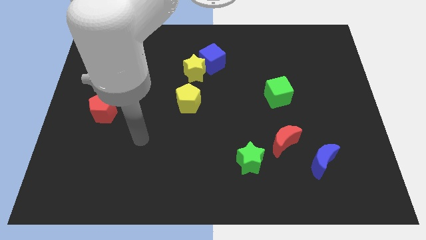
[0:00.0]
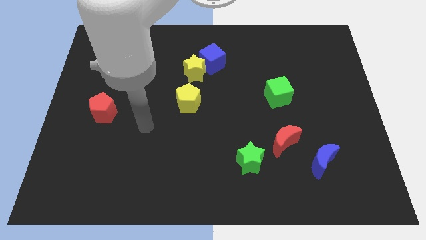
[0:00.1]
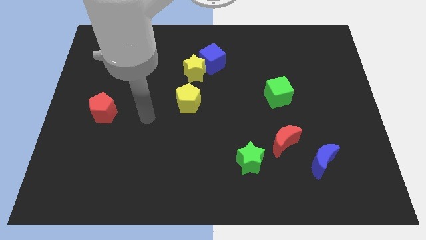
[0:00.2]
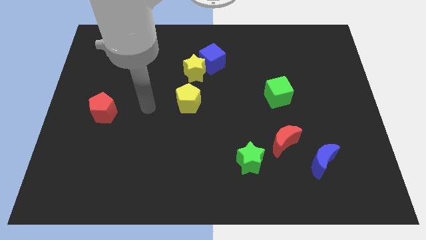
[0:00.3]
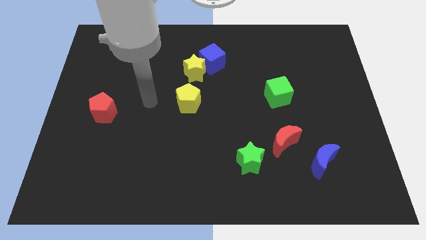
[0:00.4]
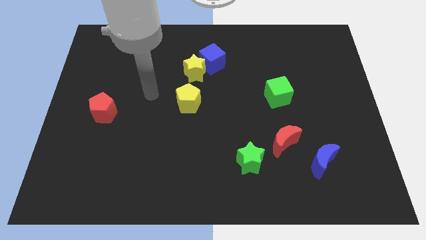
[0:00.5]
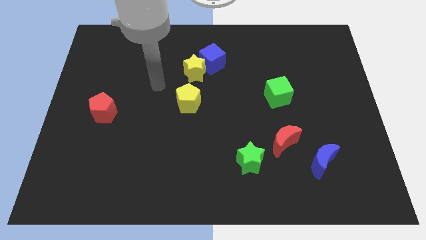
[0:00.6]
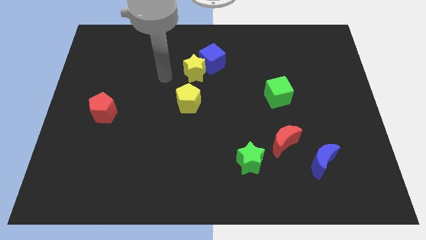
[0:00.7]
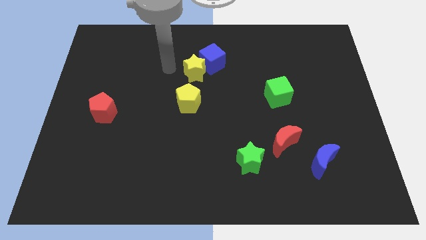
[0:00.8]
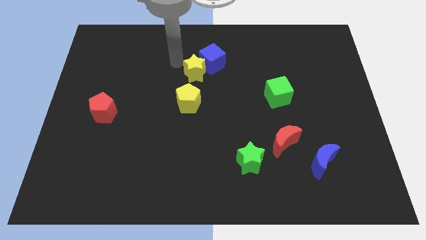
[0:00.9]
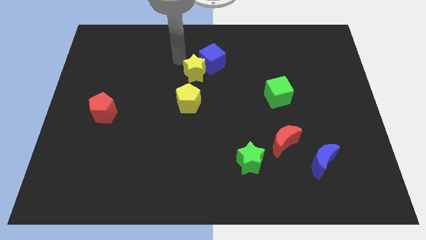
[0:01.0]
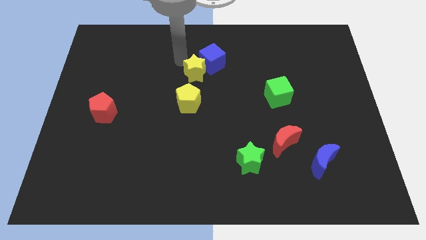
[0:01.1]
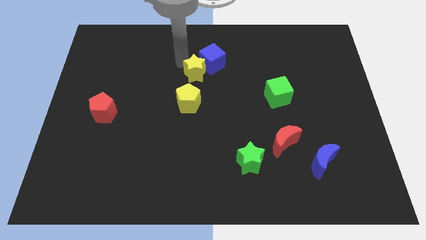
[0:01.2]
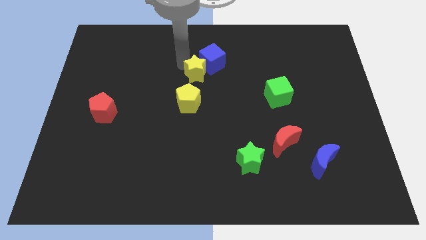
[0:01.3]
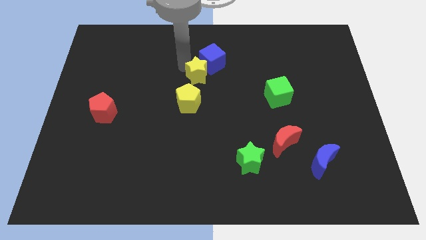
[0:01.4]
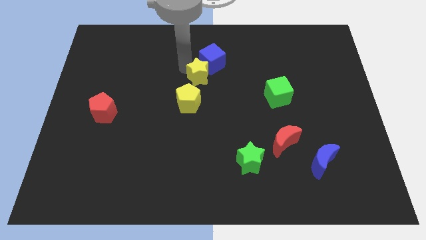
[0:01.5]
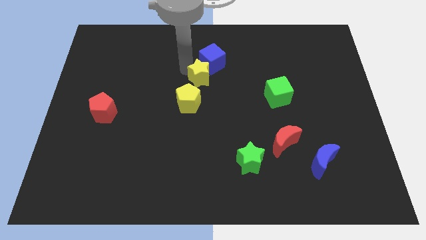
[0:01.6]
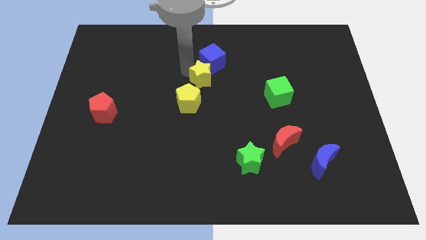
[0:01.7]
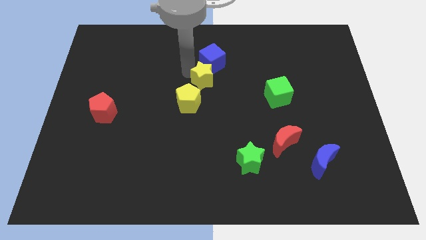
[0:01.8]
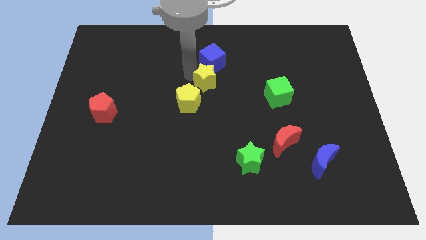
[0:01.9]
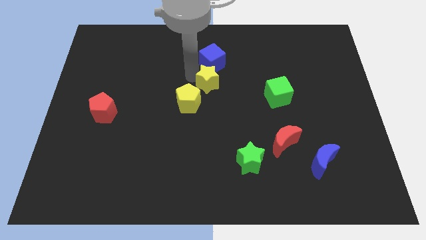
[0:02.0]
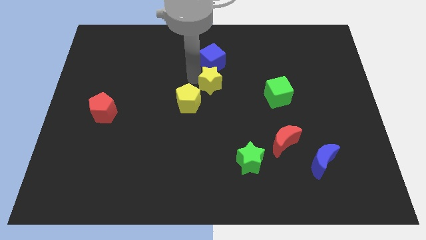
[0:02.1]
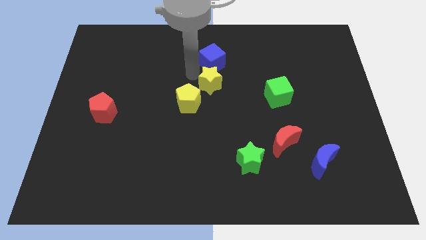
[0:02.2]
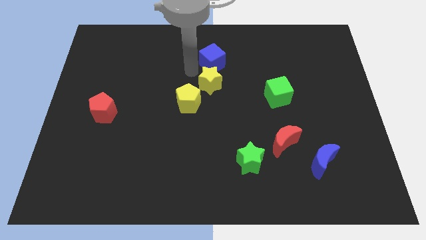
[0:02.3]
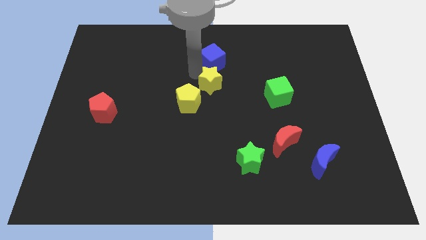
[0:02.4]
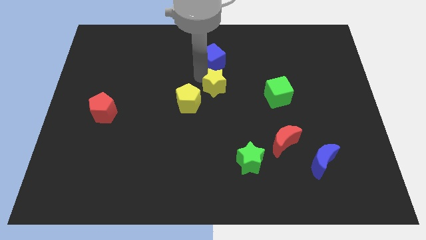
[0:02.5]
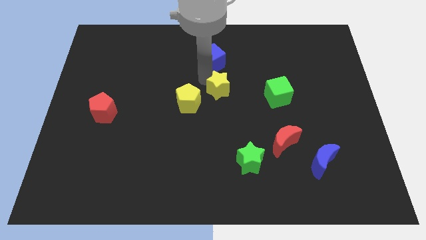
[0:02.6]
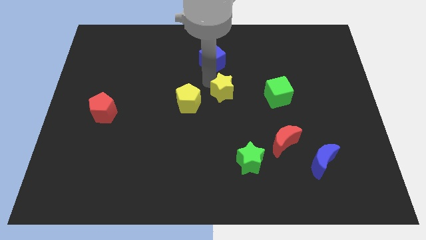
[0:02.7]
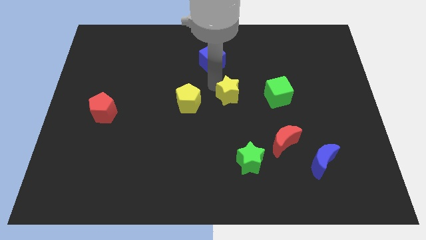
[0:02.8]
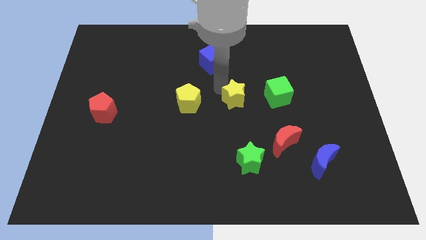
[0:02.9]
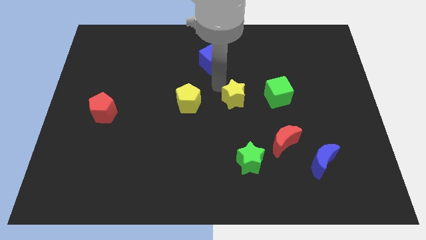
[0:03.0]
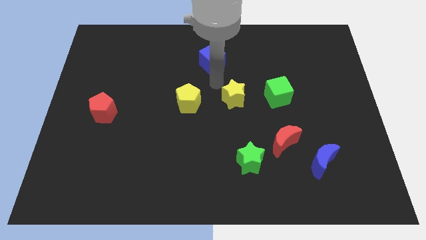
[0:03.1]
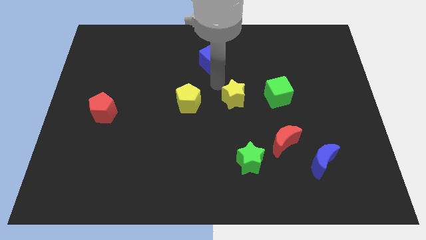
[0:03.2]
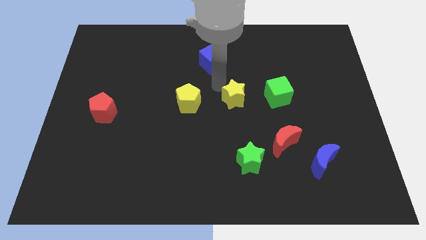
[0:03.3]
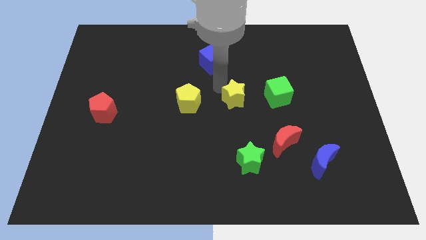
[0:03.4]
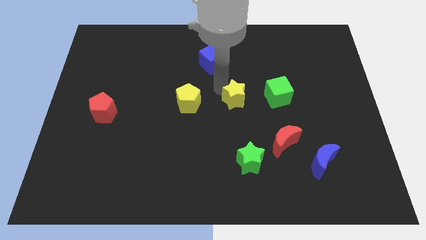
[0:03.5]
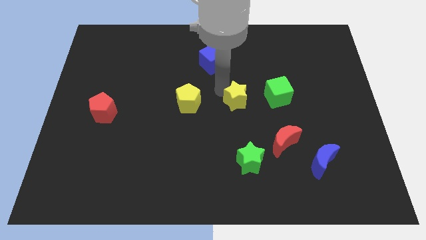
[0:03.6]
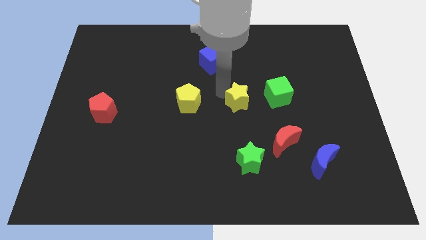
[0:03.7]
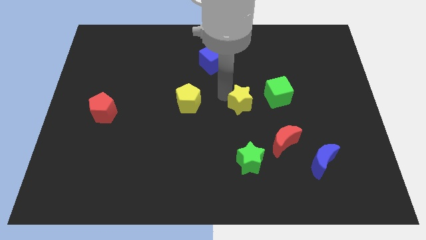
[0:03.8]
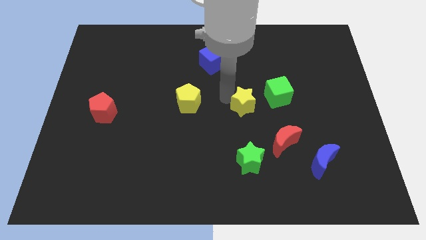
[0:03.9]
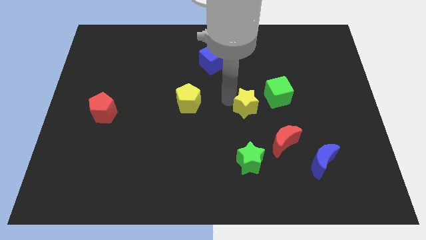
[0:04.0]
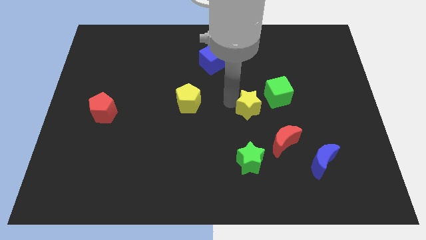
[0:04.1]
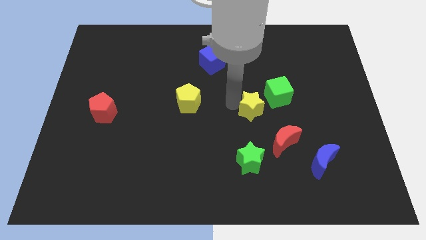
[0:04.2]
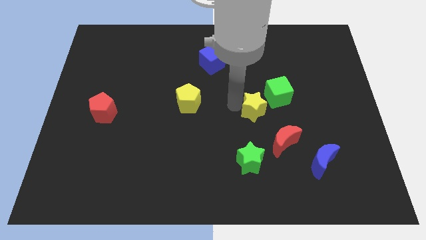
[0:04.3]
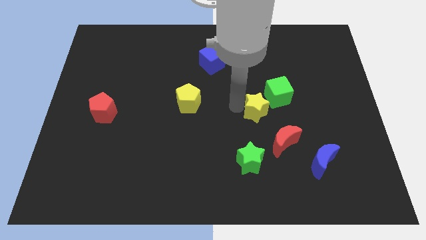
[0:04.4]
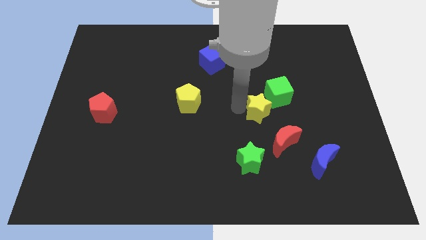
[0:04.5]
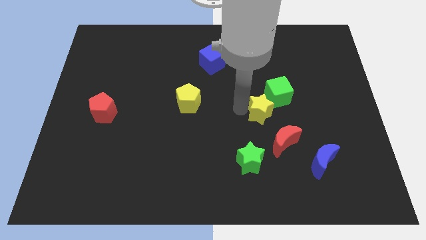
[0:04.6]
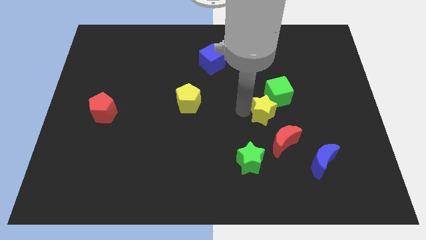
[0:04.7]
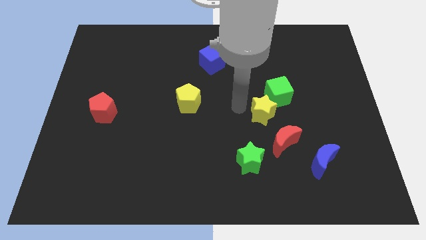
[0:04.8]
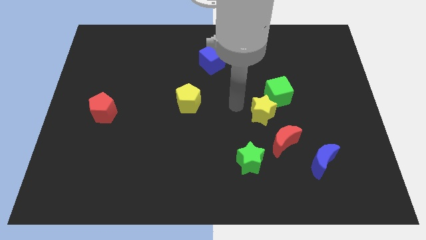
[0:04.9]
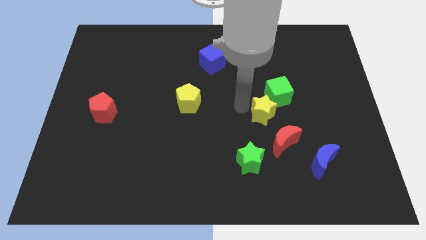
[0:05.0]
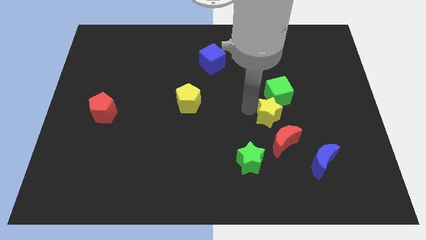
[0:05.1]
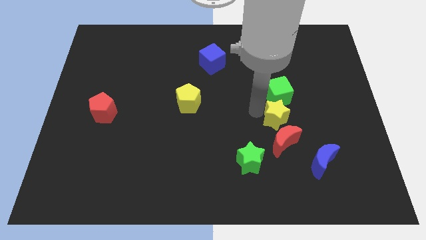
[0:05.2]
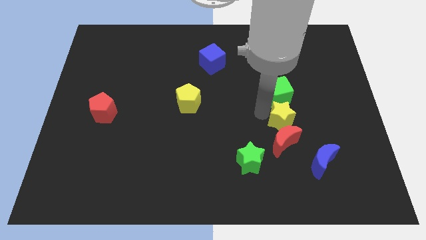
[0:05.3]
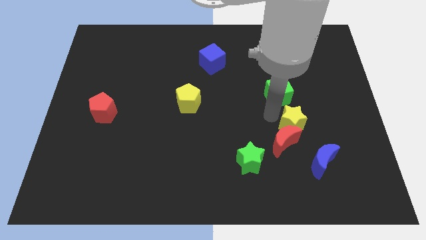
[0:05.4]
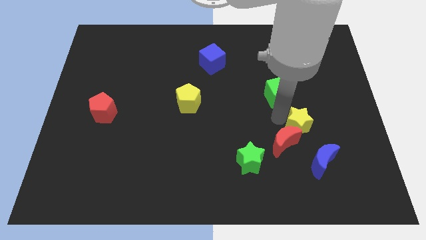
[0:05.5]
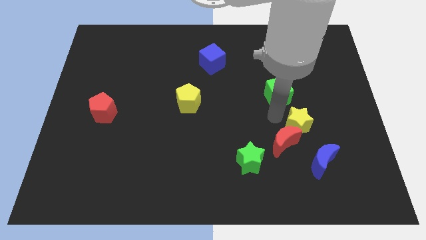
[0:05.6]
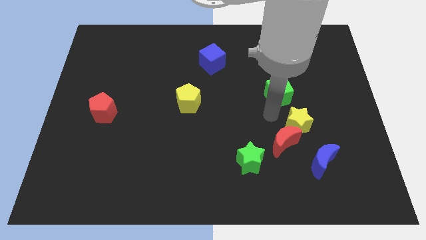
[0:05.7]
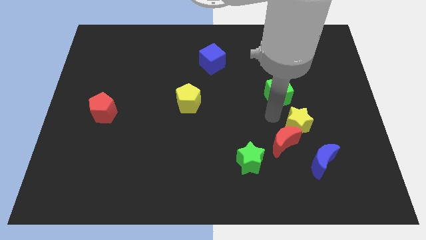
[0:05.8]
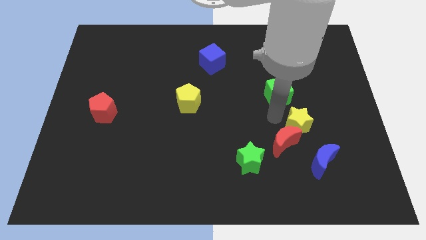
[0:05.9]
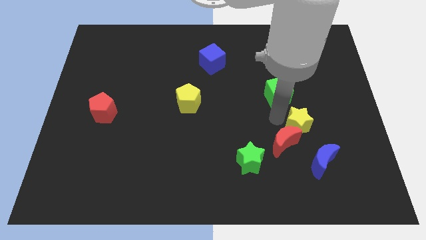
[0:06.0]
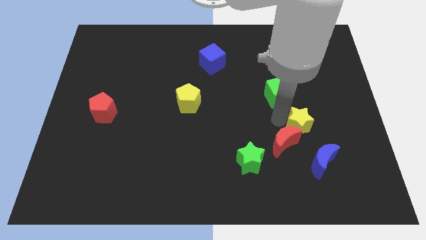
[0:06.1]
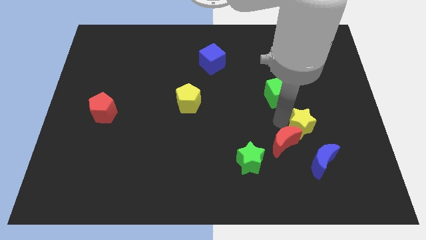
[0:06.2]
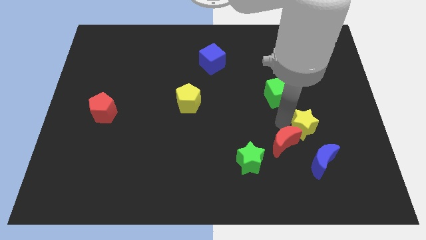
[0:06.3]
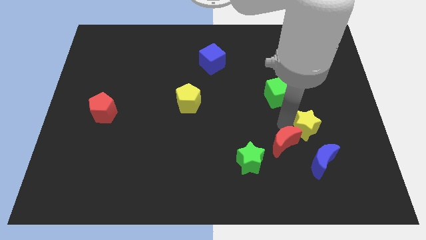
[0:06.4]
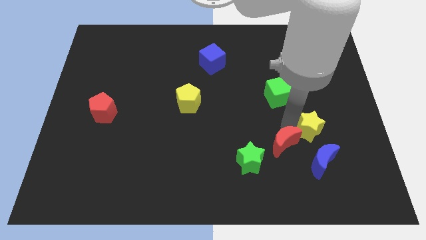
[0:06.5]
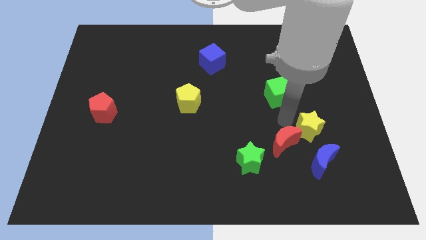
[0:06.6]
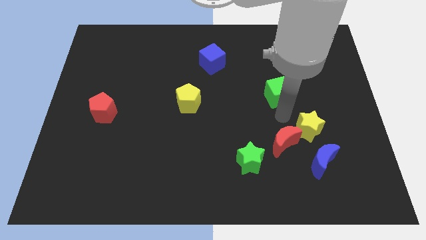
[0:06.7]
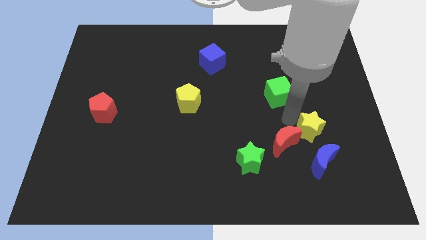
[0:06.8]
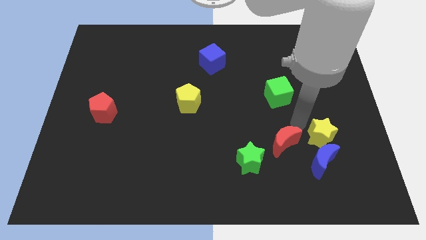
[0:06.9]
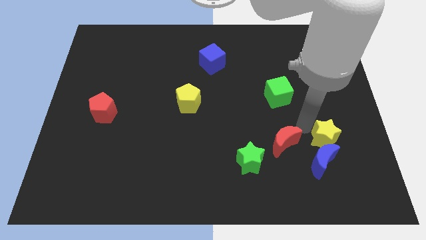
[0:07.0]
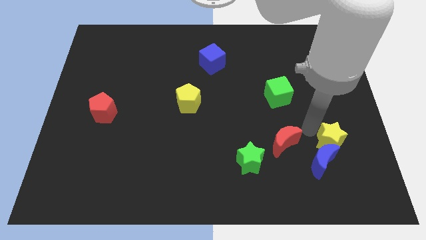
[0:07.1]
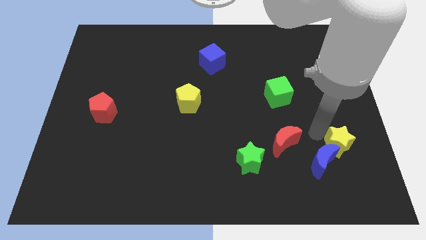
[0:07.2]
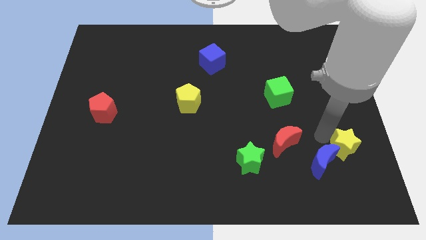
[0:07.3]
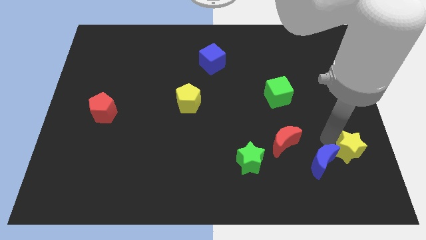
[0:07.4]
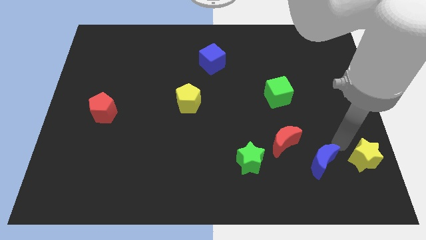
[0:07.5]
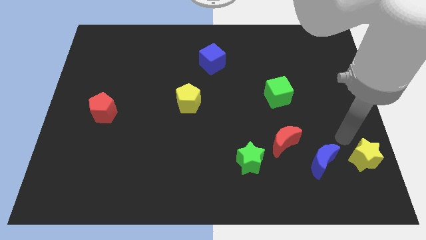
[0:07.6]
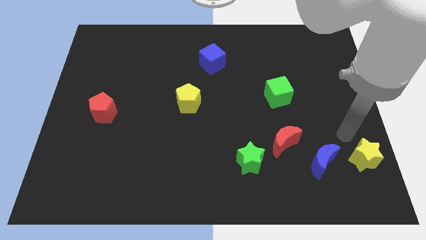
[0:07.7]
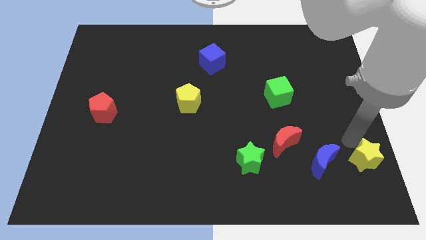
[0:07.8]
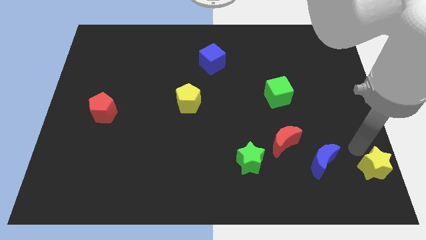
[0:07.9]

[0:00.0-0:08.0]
slide the yellow star to the lower right corner
